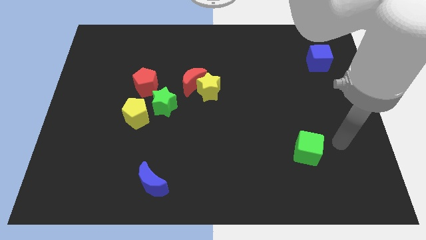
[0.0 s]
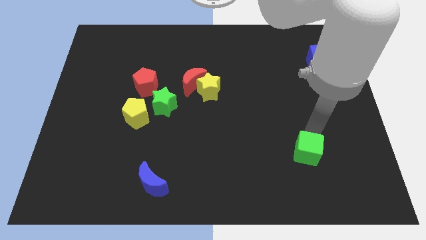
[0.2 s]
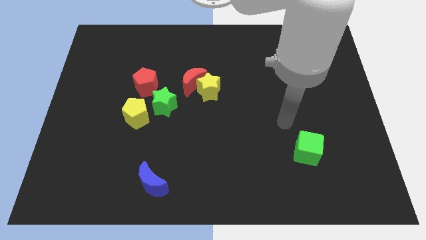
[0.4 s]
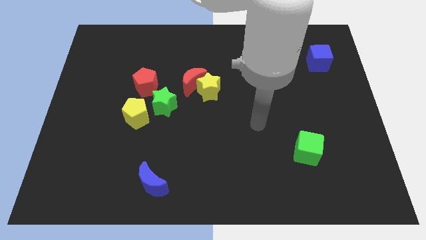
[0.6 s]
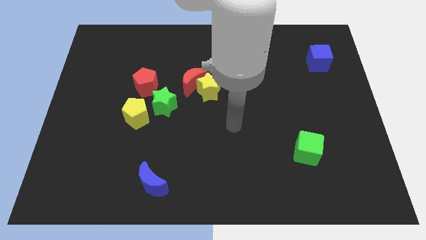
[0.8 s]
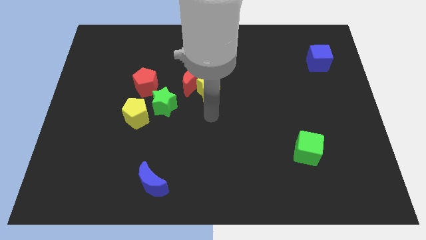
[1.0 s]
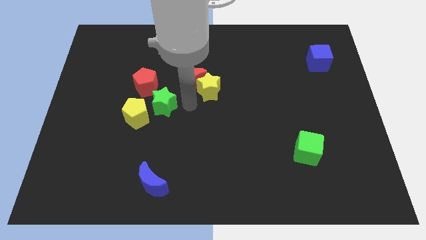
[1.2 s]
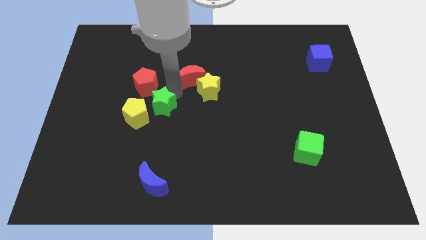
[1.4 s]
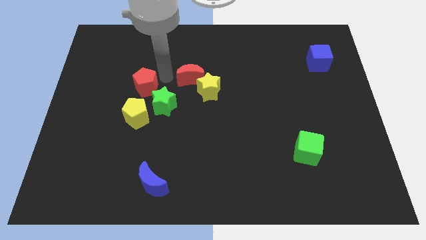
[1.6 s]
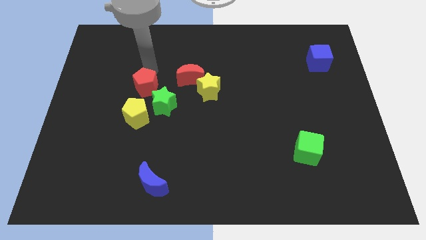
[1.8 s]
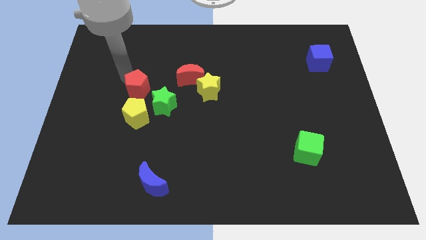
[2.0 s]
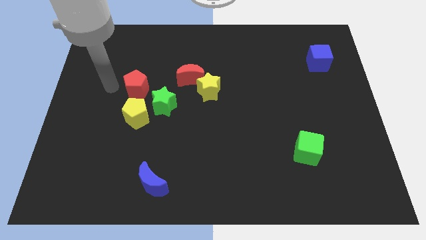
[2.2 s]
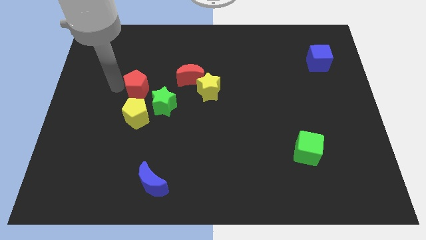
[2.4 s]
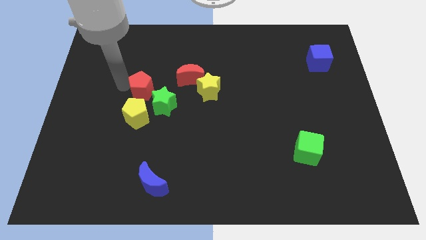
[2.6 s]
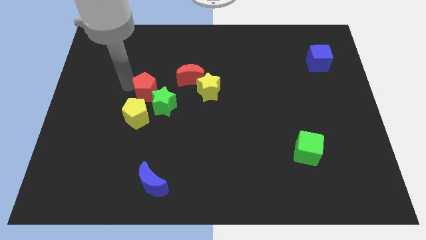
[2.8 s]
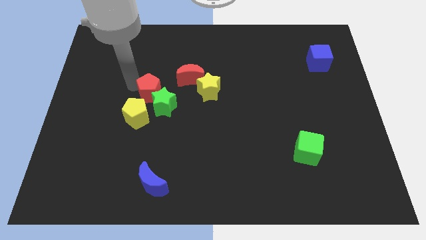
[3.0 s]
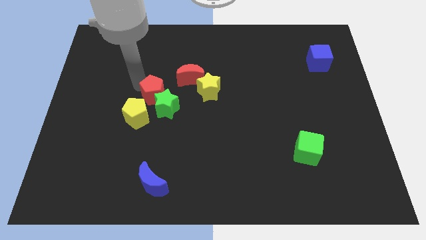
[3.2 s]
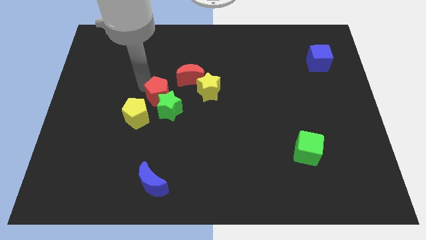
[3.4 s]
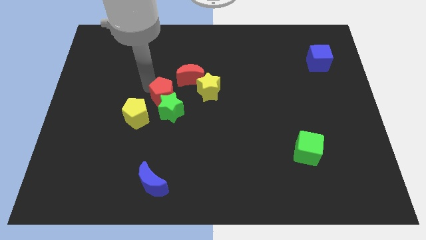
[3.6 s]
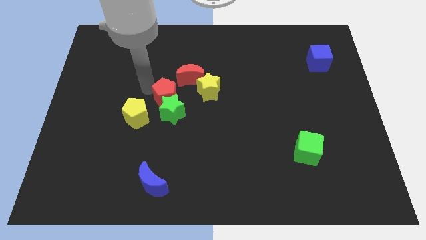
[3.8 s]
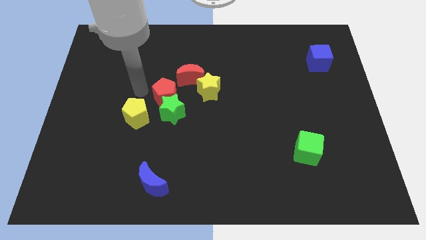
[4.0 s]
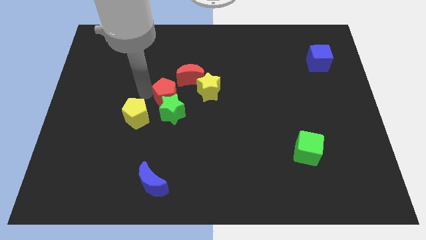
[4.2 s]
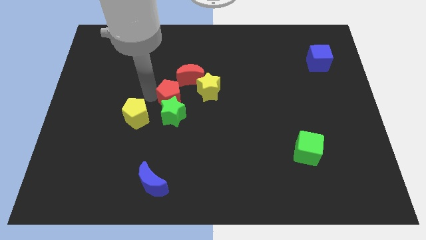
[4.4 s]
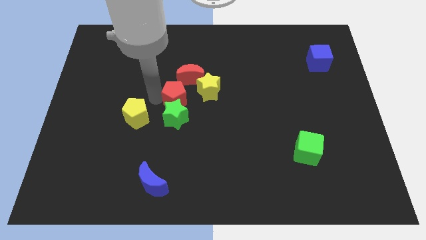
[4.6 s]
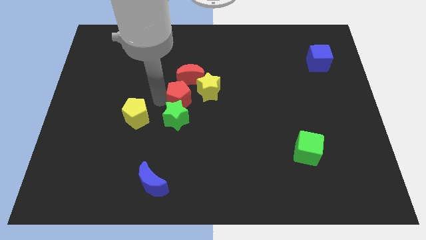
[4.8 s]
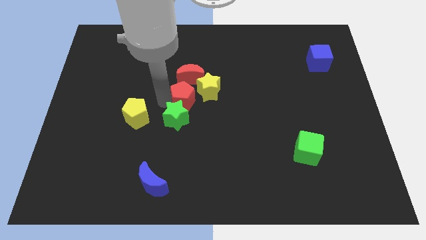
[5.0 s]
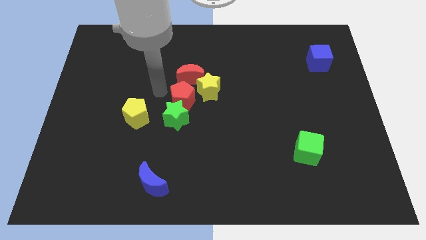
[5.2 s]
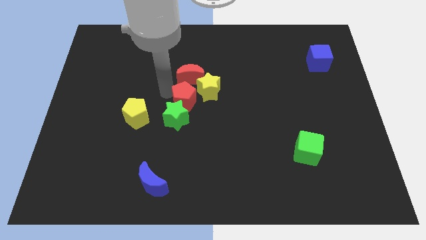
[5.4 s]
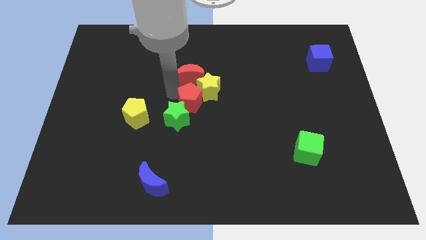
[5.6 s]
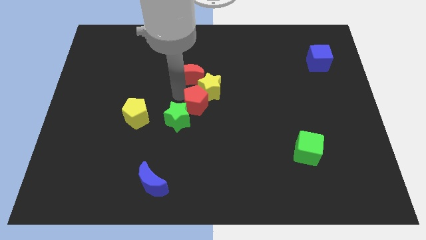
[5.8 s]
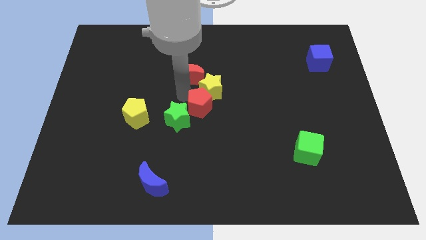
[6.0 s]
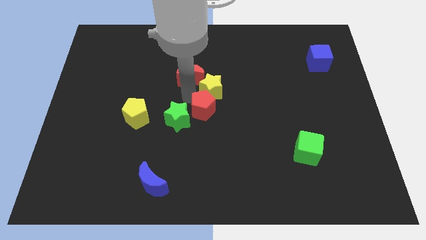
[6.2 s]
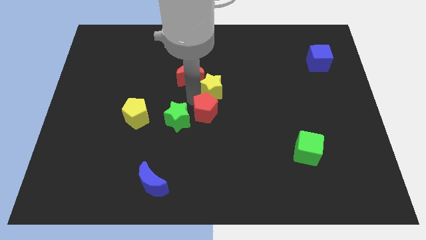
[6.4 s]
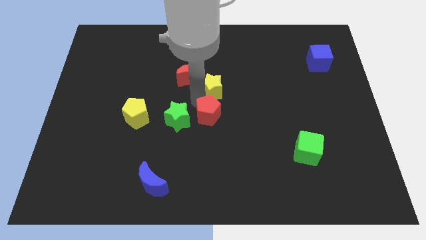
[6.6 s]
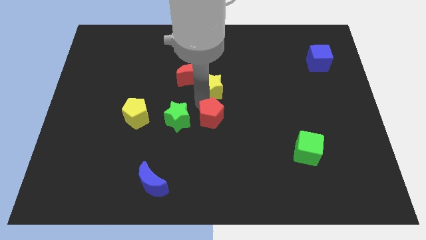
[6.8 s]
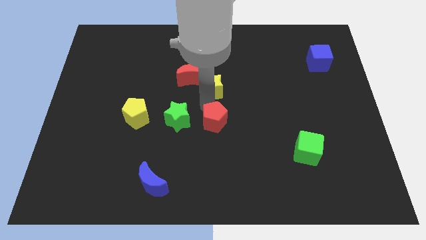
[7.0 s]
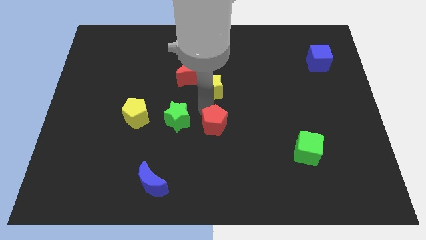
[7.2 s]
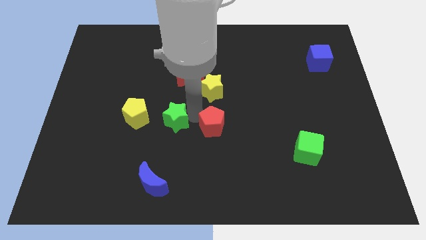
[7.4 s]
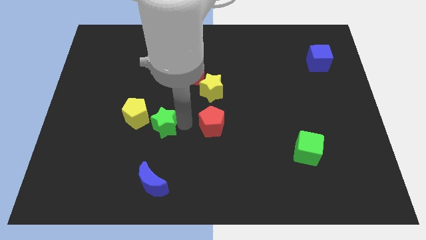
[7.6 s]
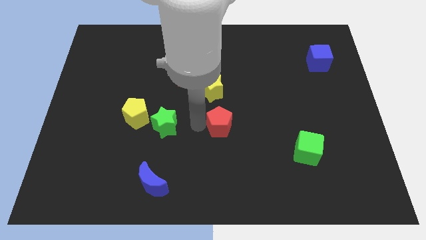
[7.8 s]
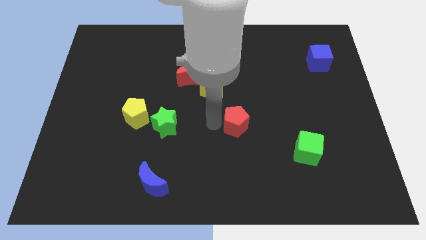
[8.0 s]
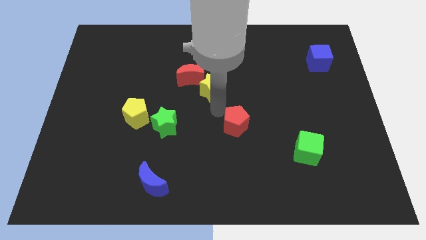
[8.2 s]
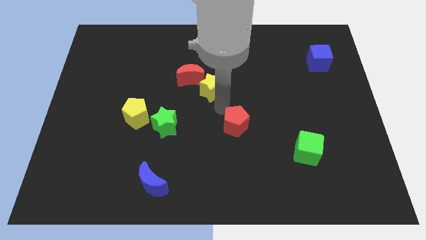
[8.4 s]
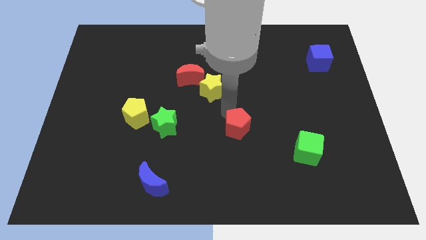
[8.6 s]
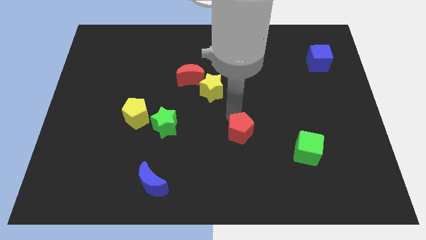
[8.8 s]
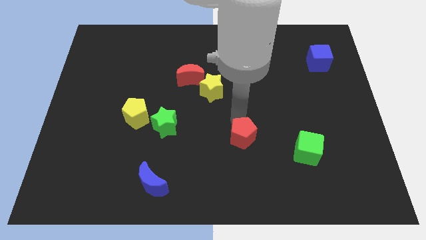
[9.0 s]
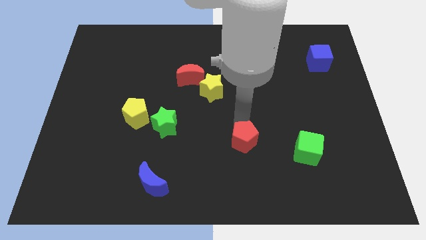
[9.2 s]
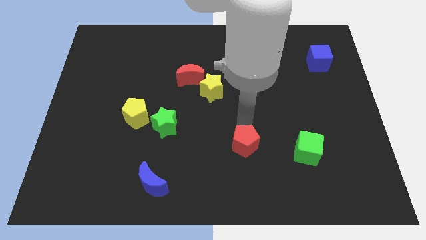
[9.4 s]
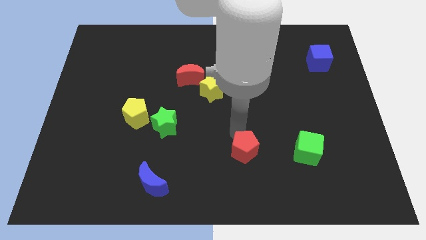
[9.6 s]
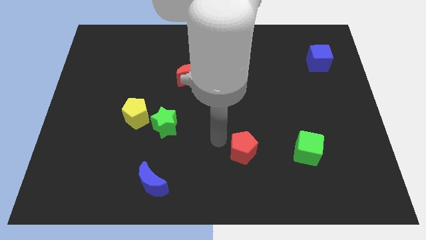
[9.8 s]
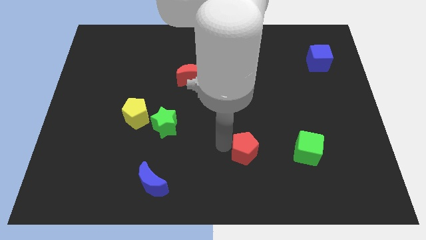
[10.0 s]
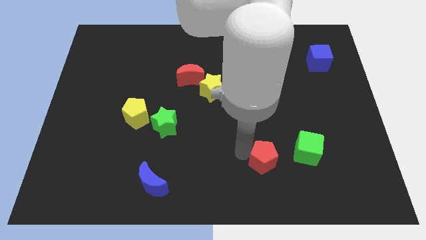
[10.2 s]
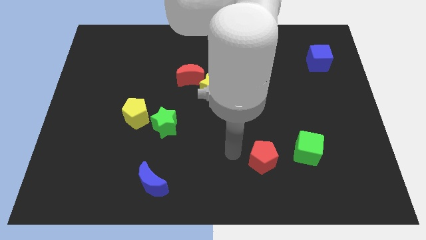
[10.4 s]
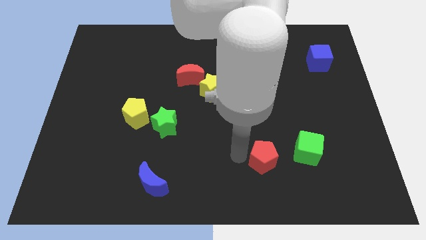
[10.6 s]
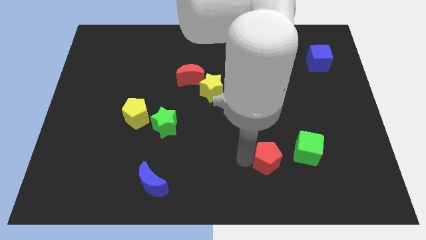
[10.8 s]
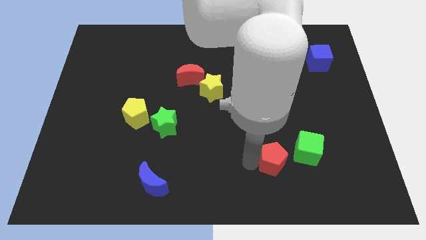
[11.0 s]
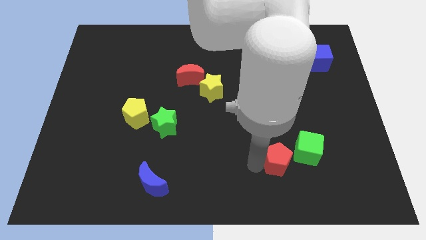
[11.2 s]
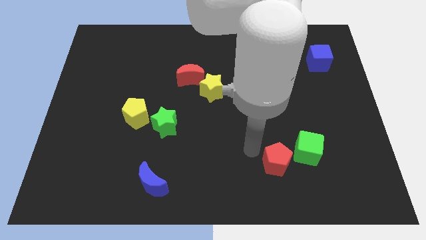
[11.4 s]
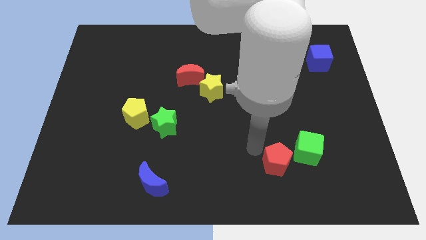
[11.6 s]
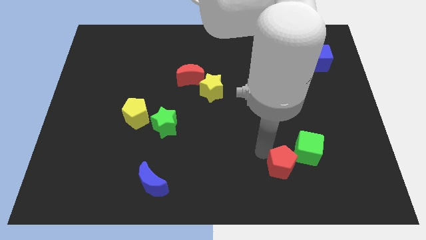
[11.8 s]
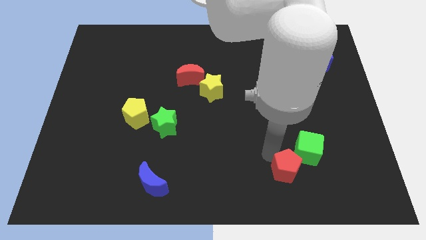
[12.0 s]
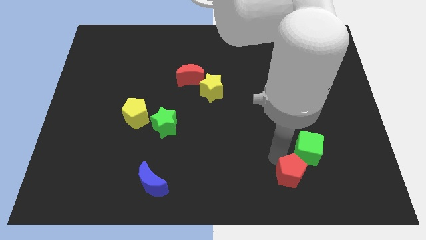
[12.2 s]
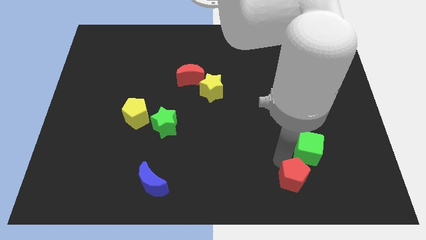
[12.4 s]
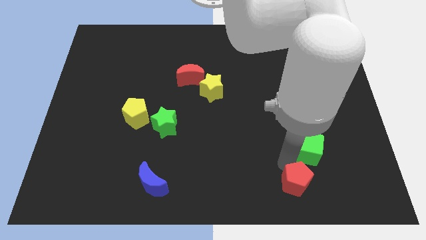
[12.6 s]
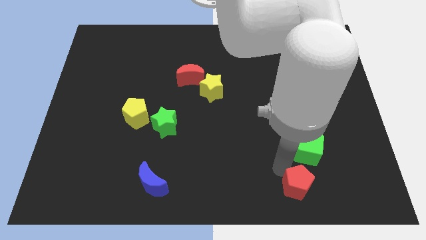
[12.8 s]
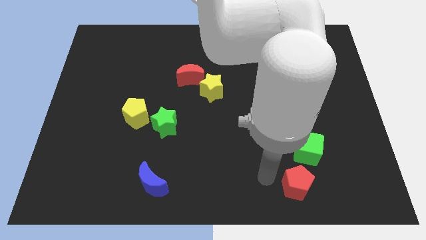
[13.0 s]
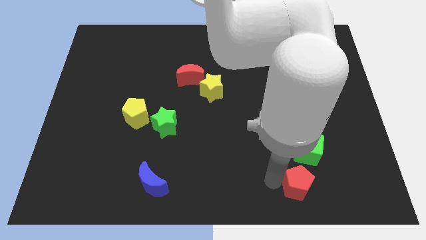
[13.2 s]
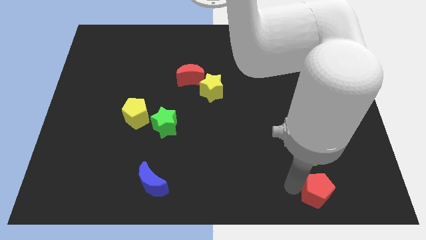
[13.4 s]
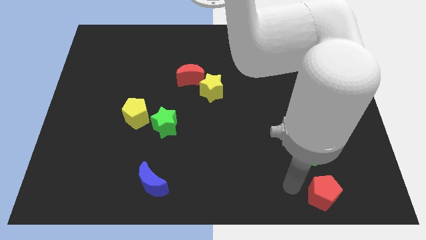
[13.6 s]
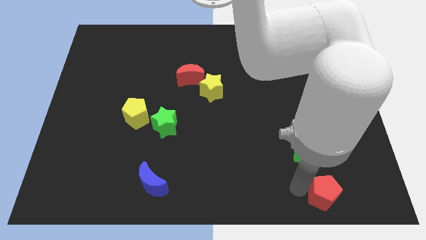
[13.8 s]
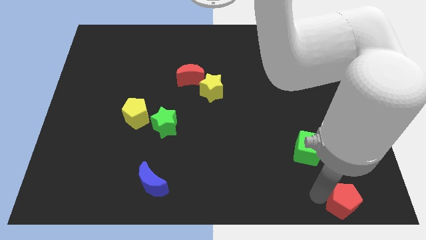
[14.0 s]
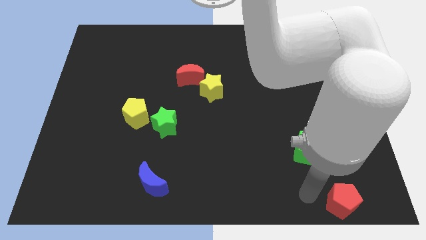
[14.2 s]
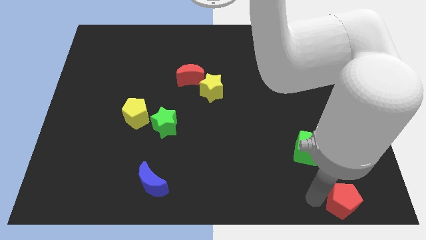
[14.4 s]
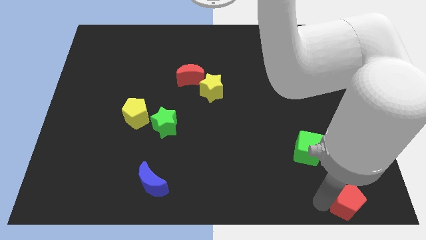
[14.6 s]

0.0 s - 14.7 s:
push the red pentagon to the lower right corner
